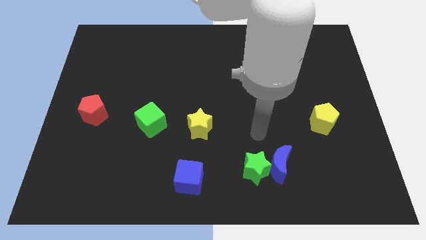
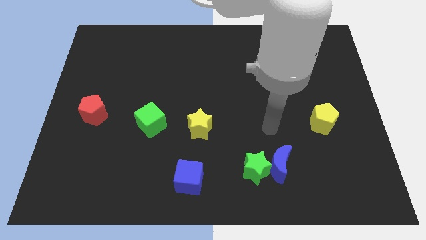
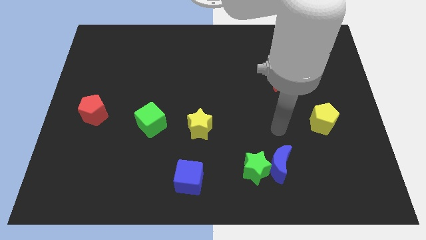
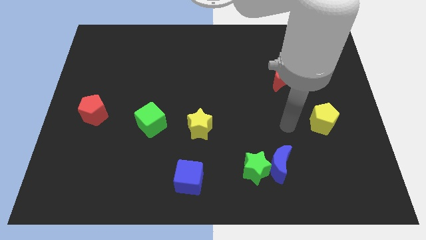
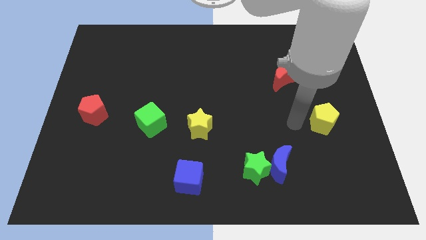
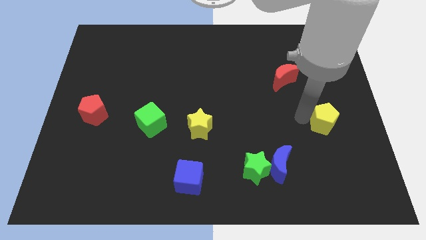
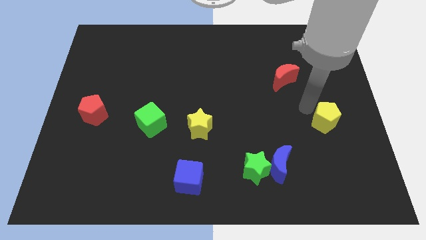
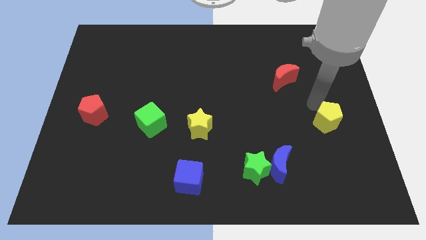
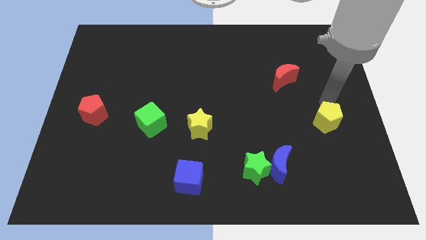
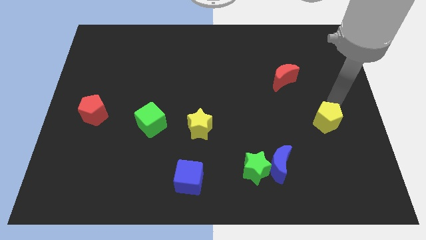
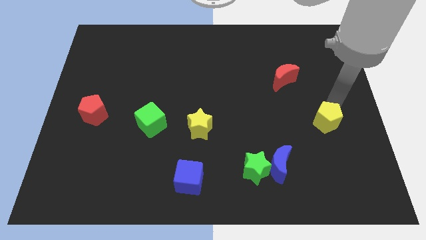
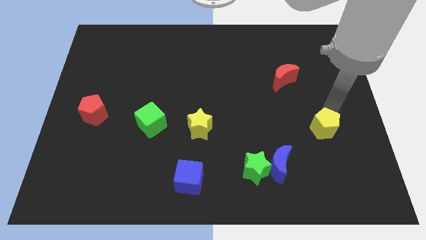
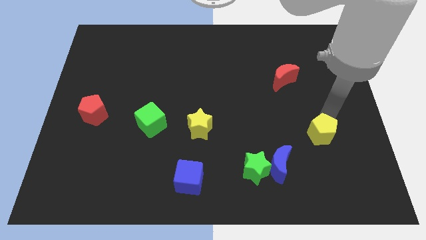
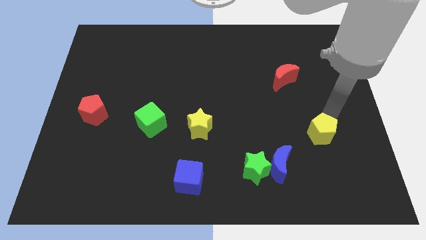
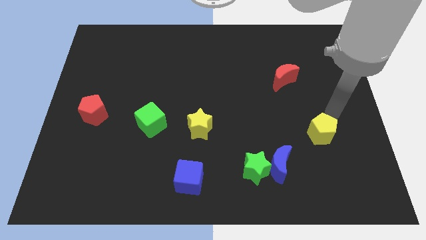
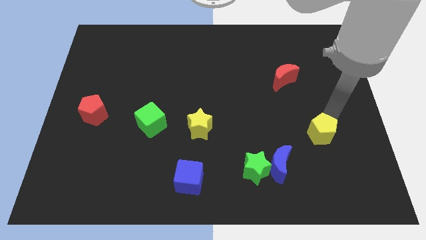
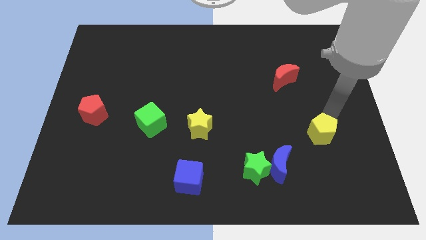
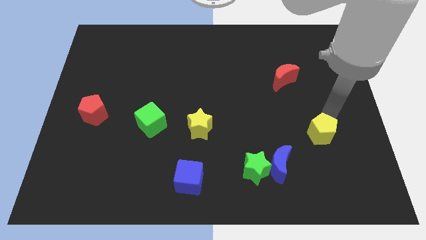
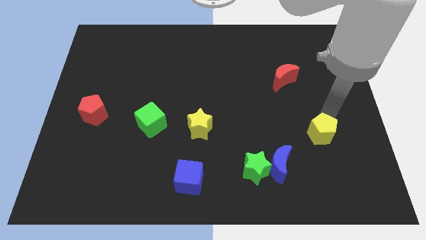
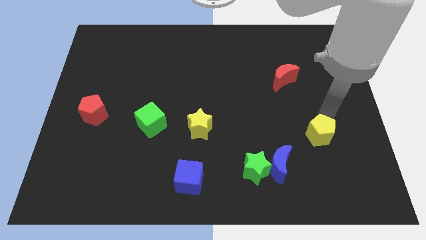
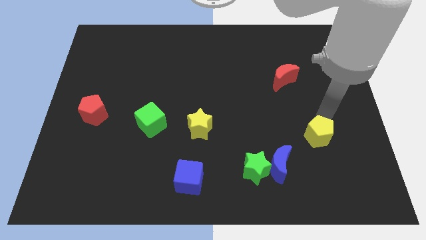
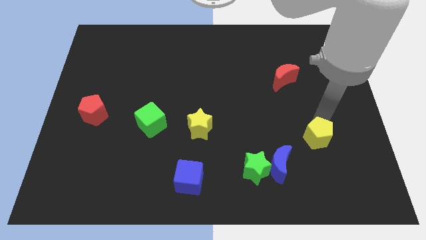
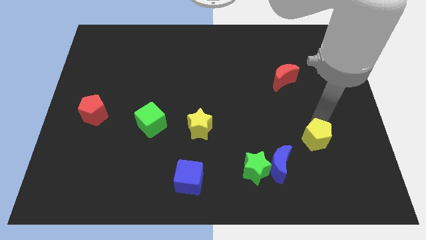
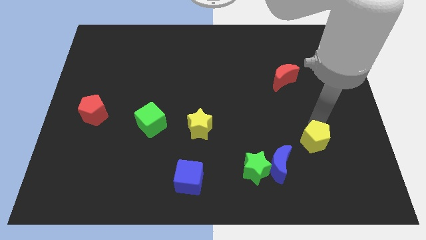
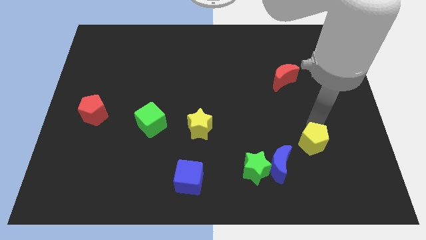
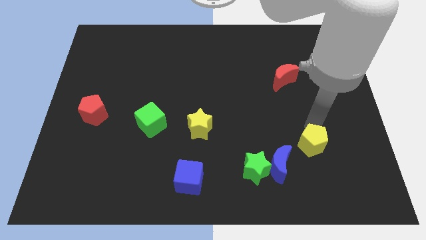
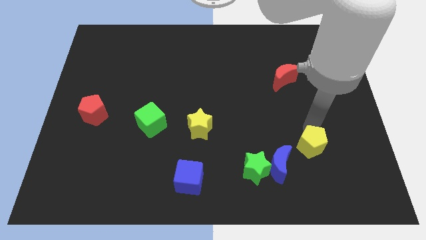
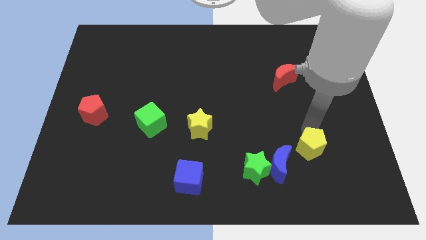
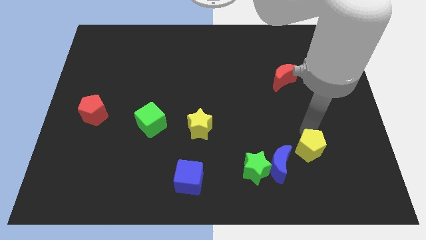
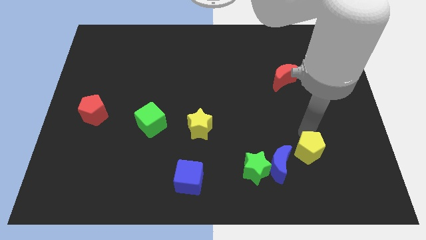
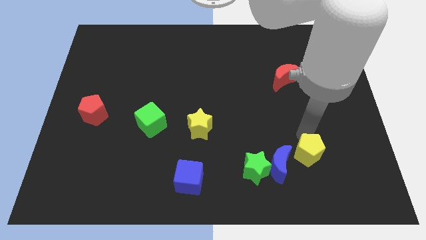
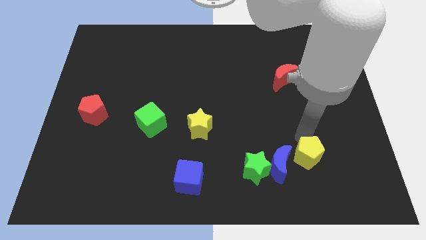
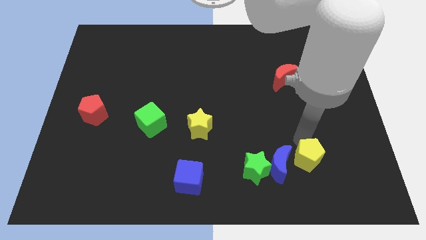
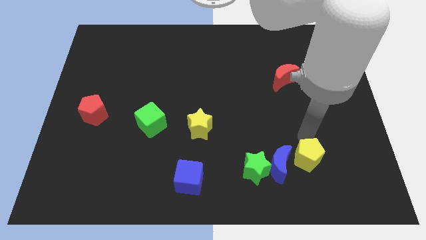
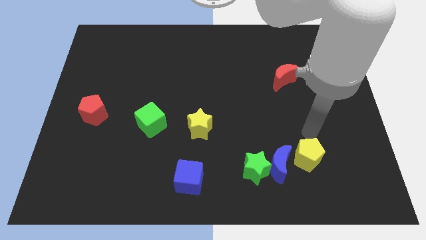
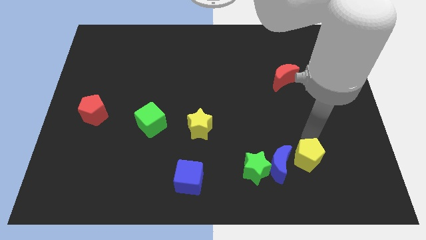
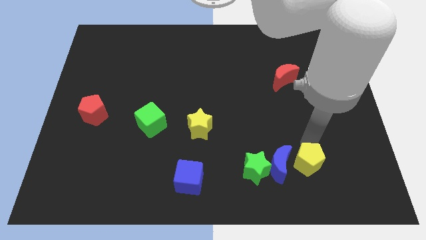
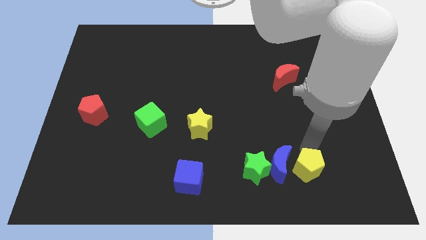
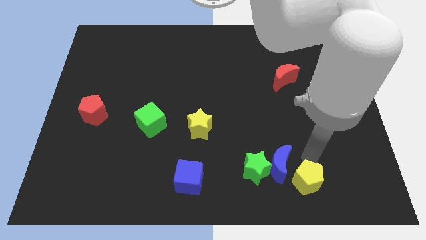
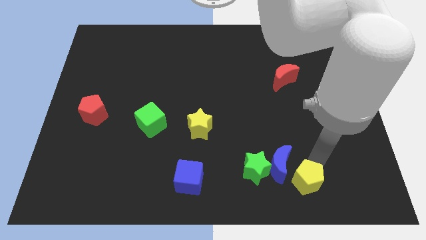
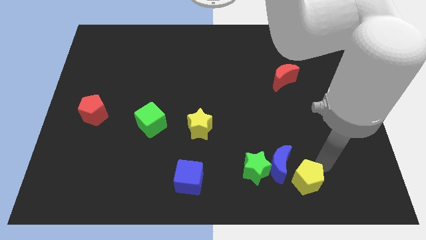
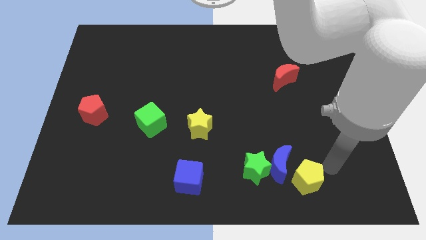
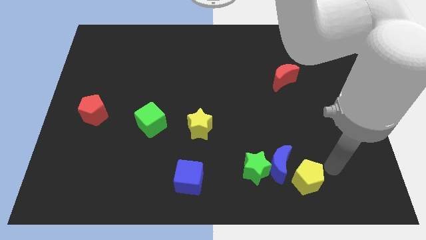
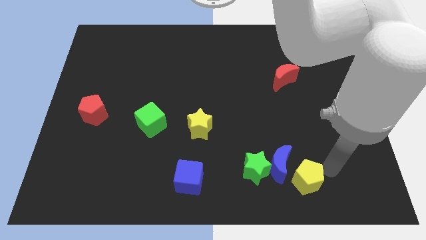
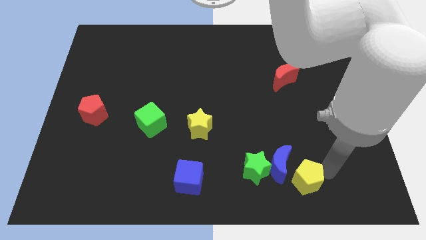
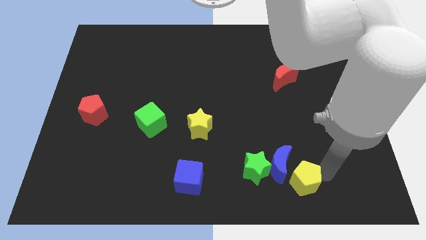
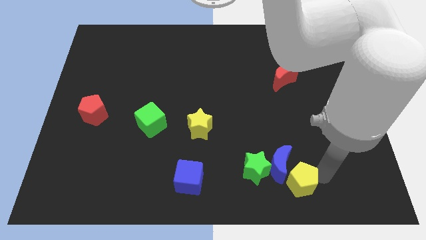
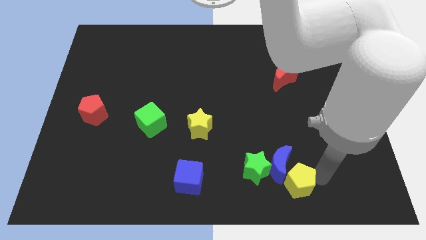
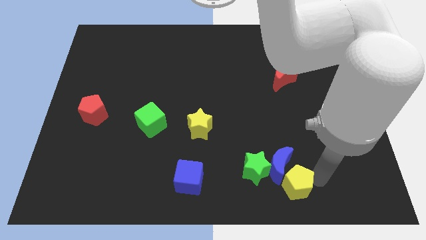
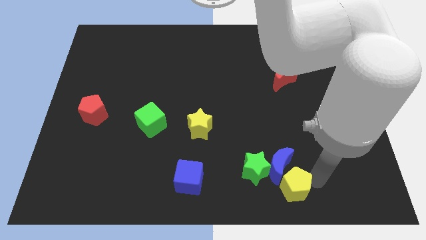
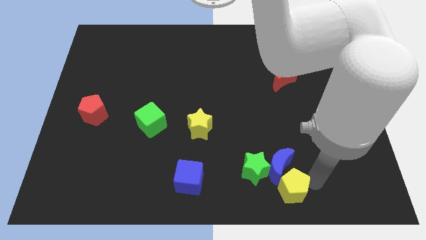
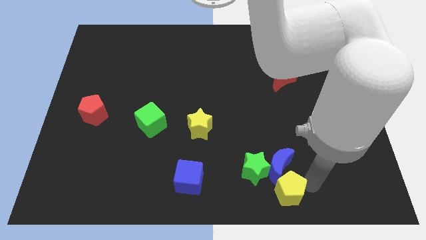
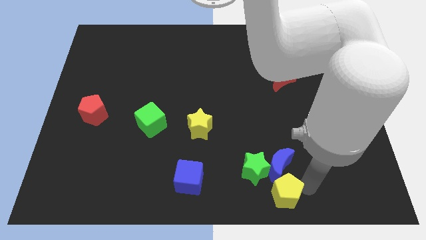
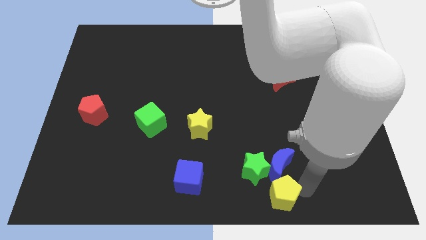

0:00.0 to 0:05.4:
put the yellow pentagon to the bottom side

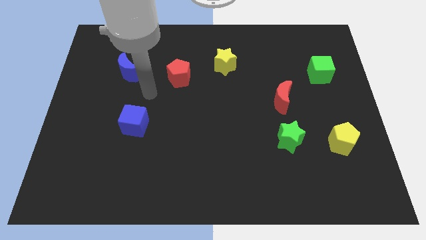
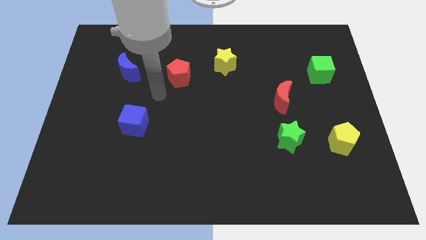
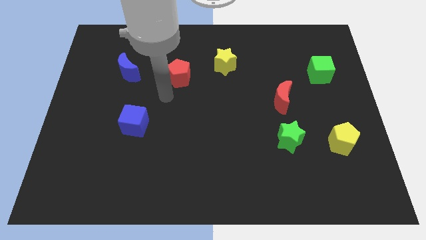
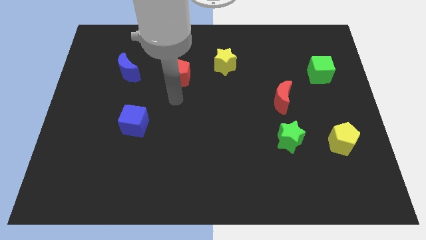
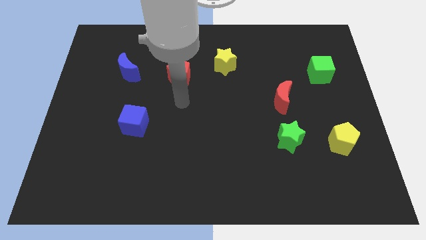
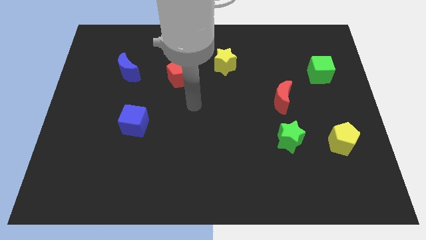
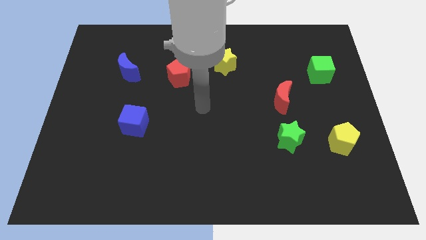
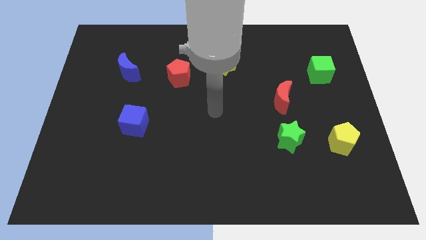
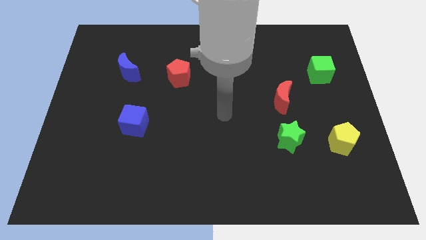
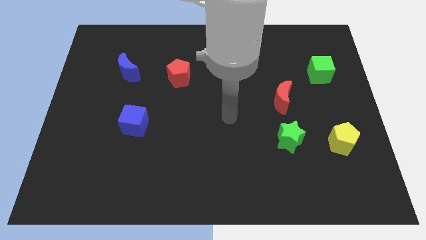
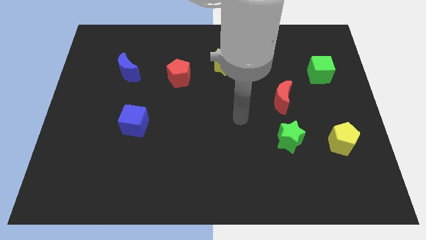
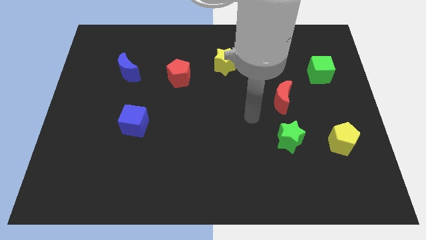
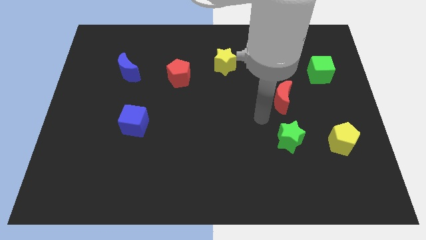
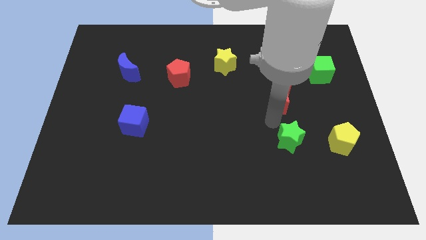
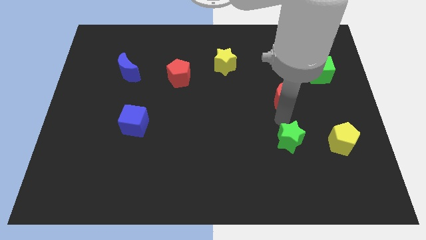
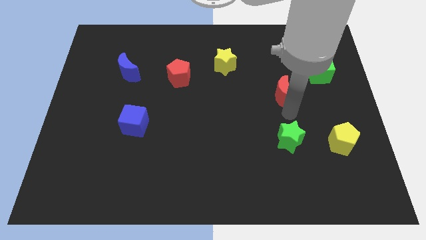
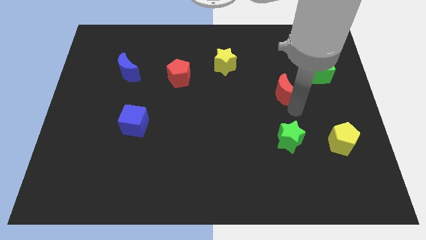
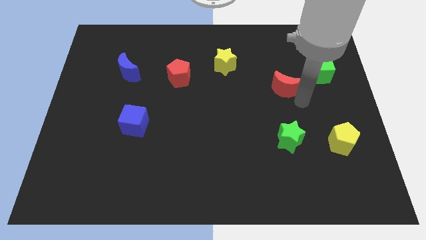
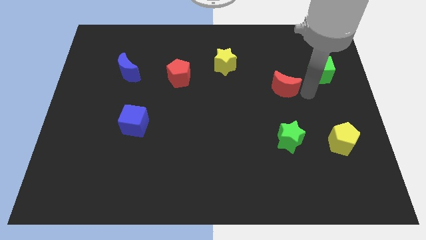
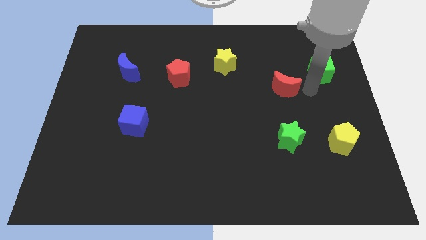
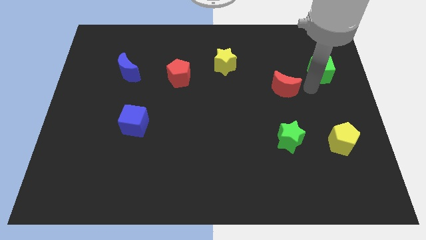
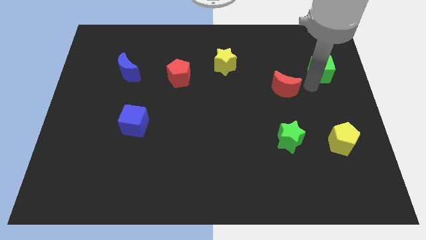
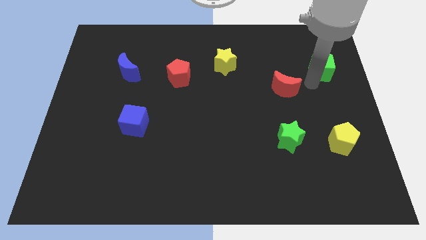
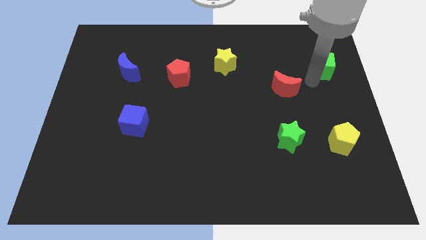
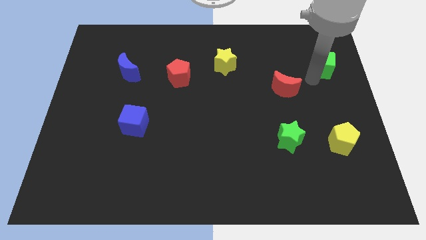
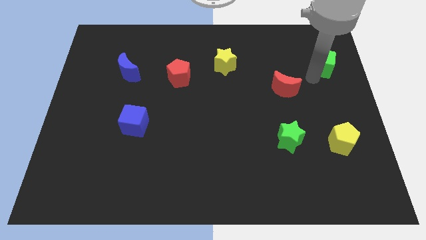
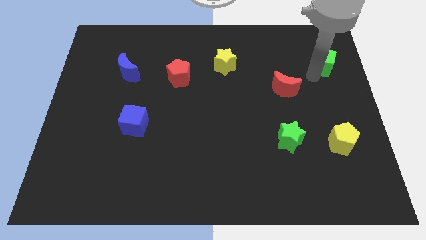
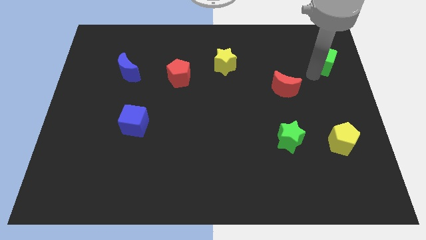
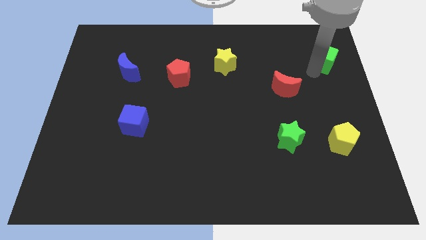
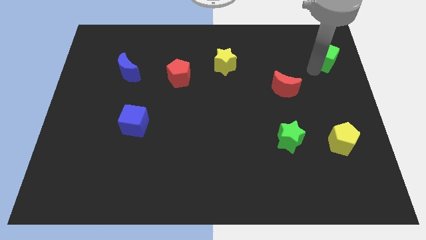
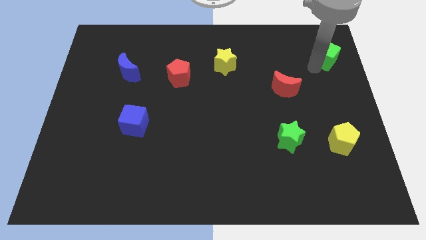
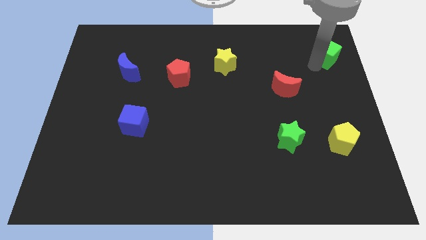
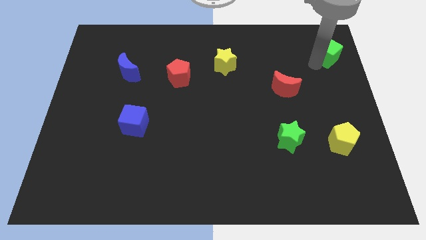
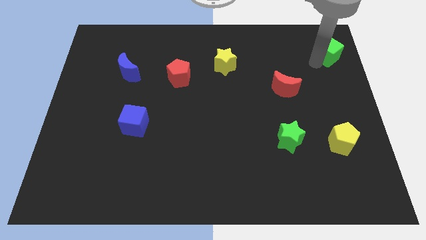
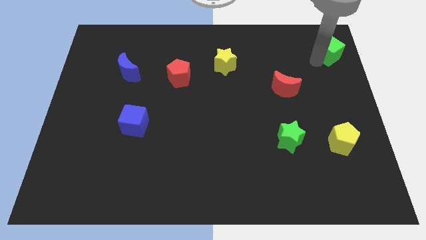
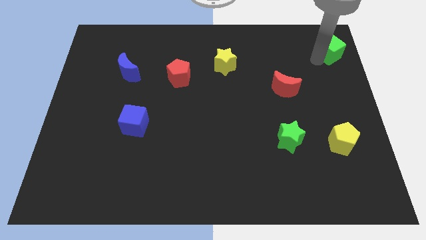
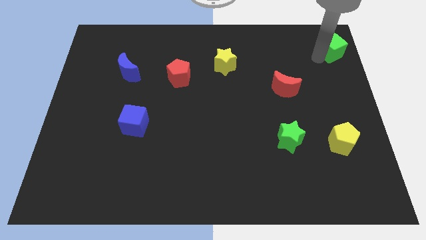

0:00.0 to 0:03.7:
move the green cube to the upper right corner
